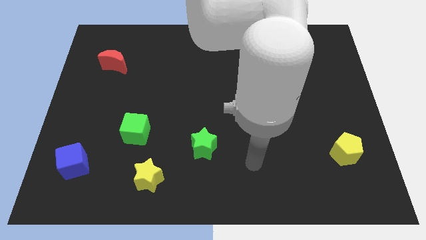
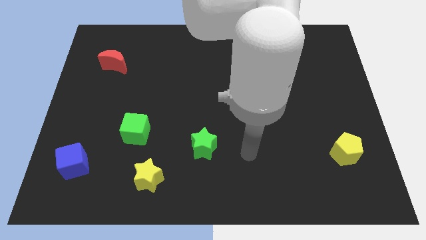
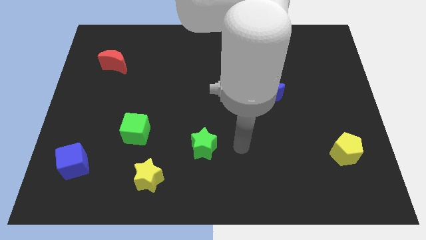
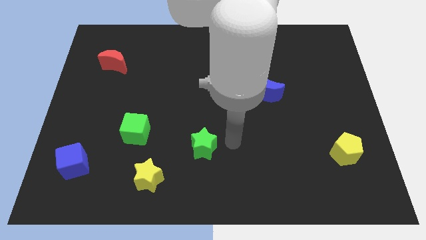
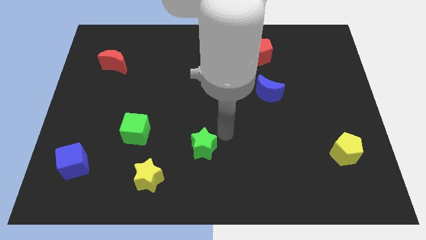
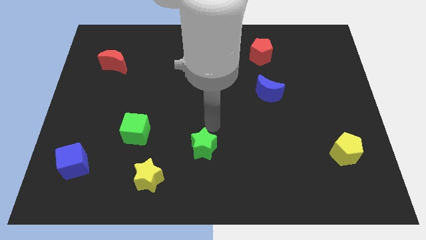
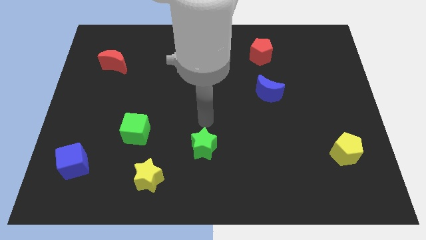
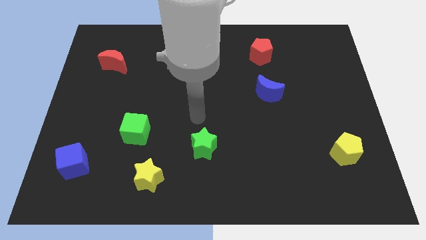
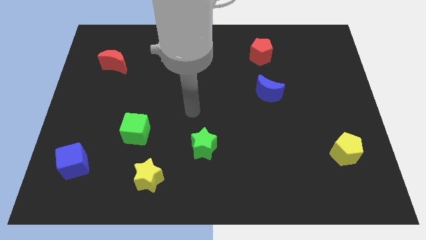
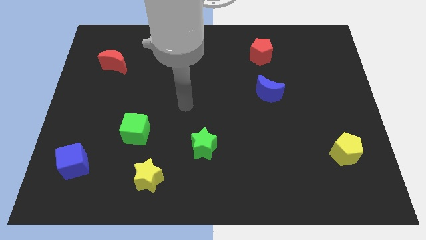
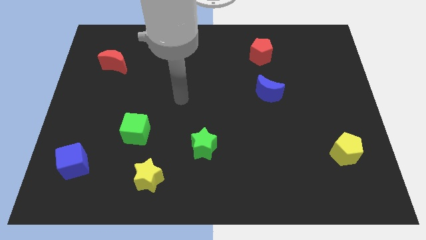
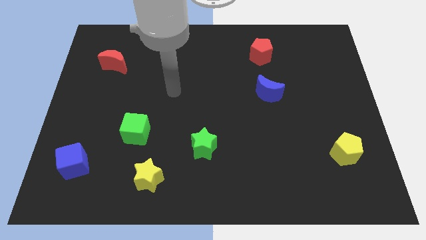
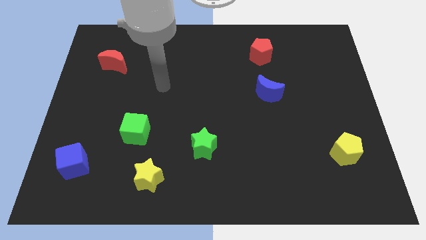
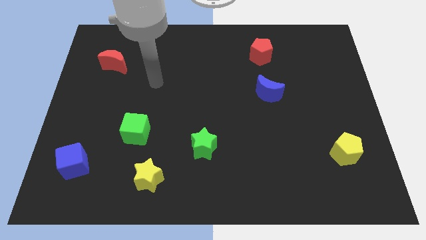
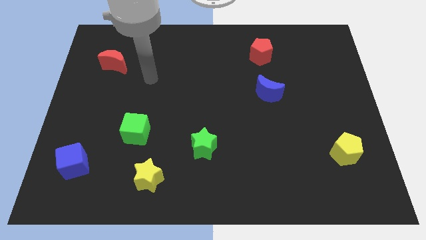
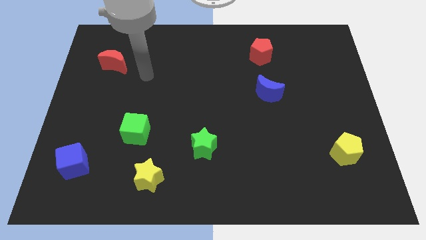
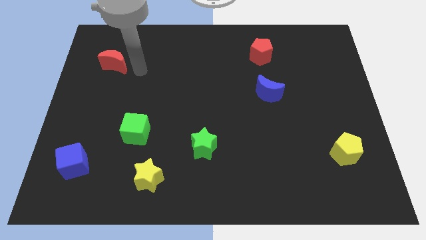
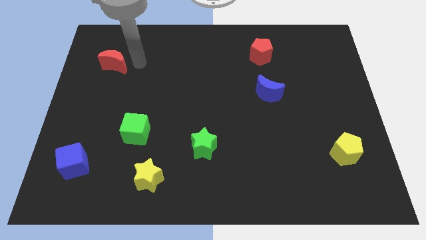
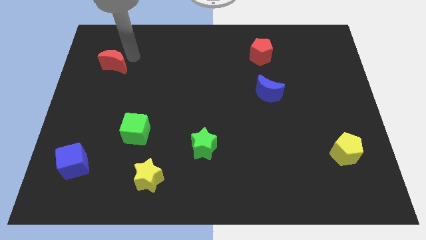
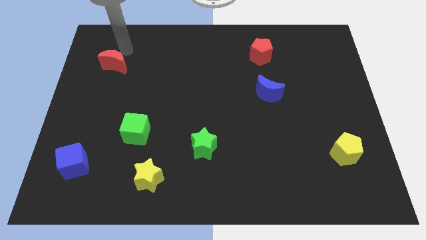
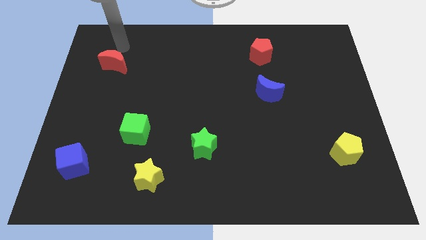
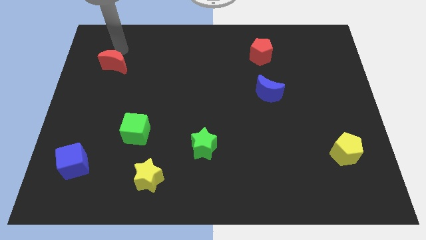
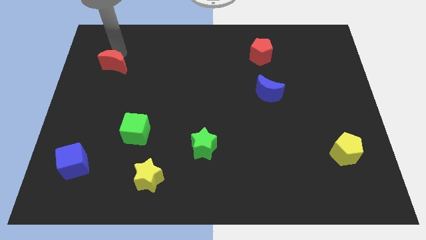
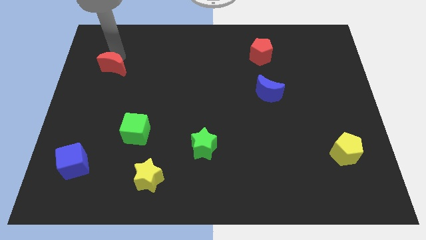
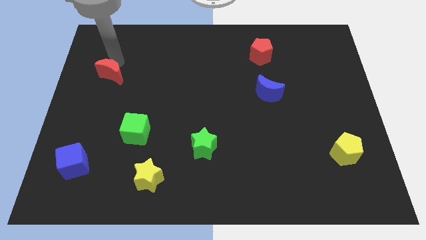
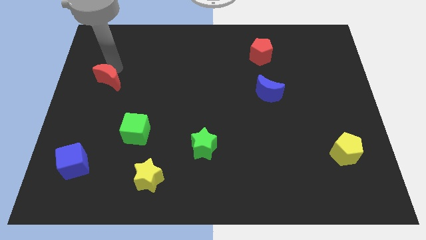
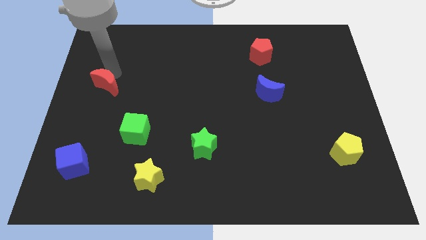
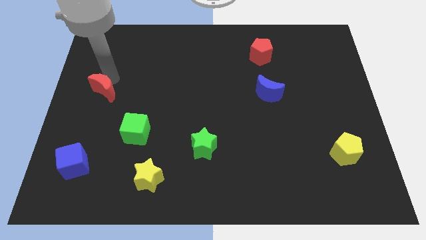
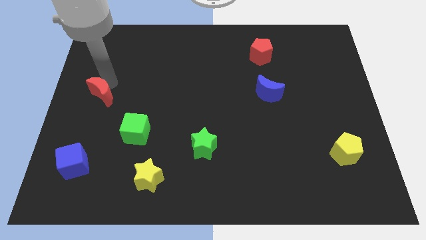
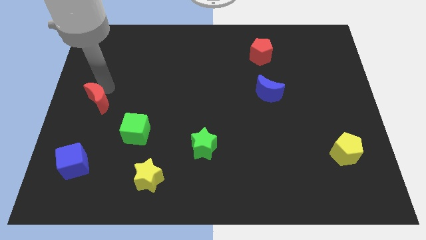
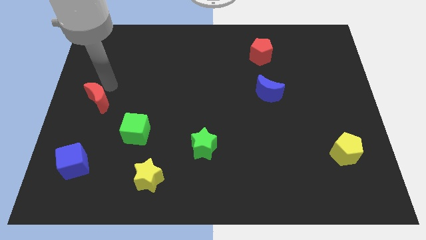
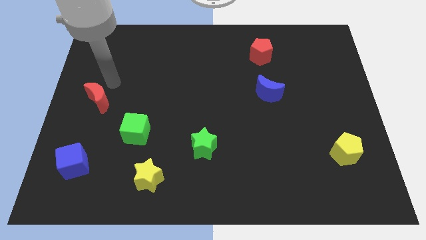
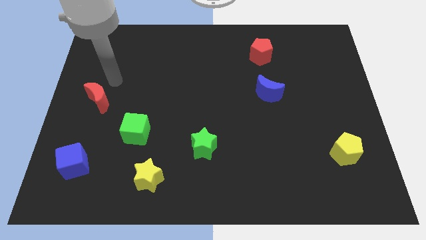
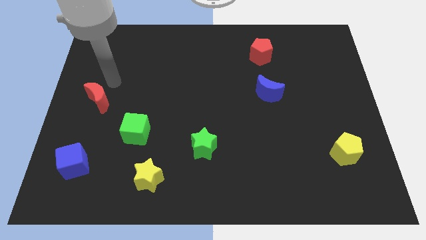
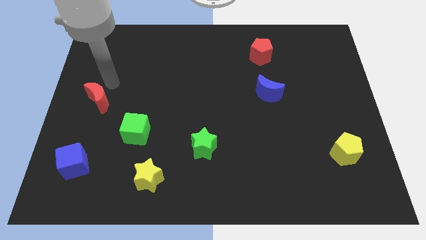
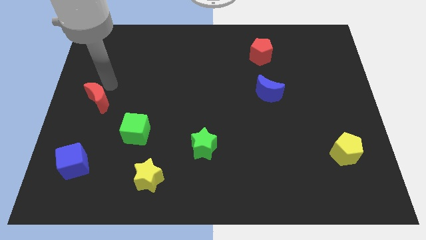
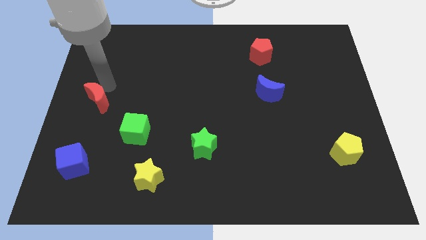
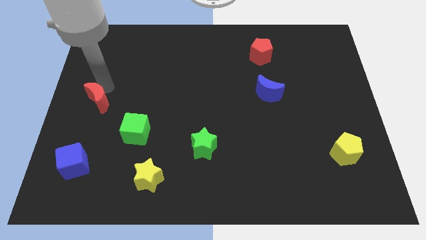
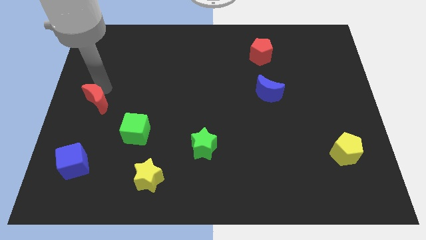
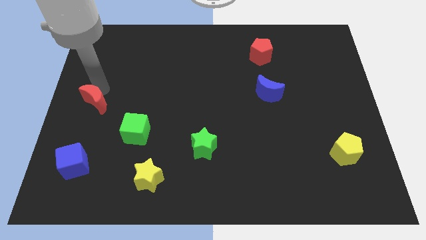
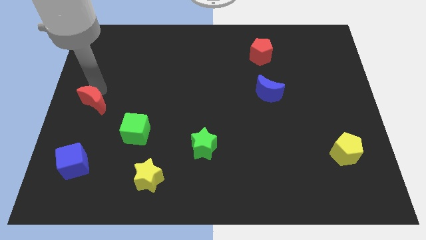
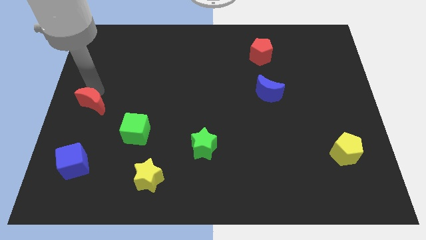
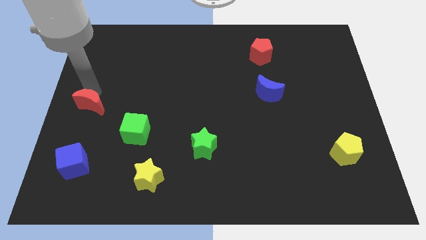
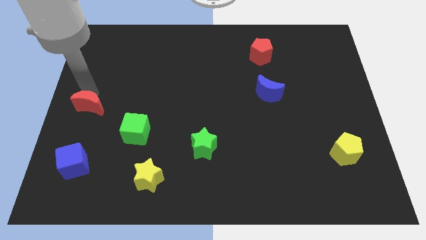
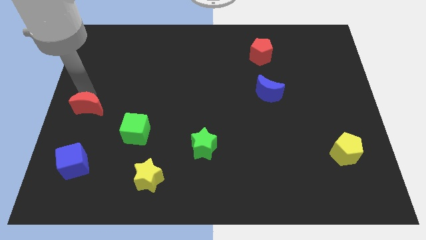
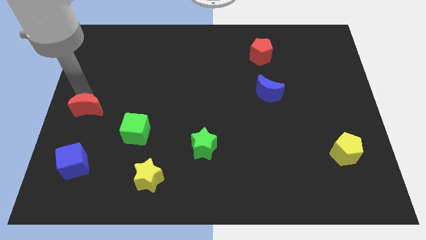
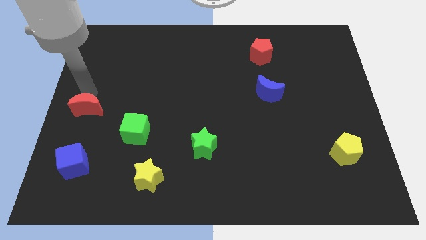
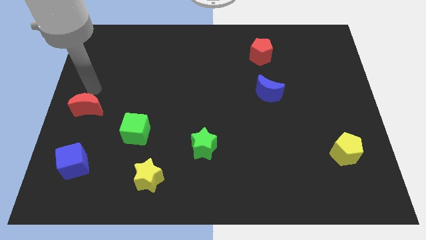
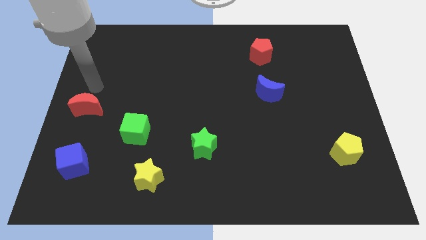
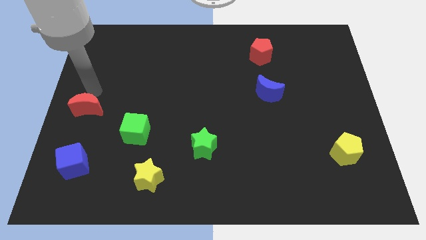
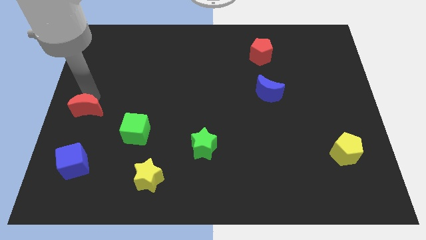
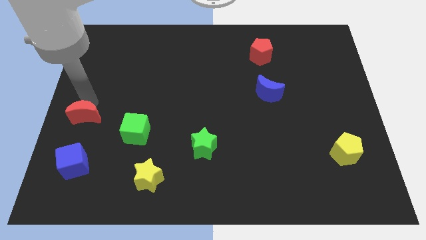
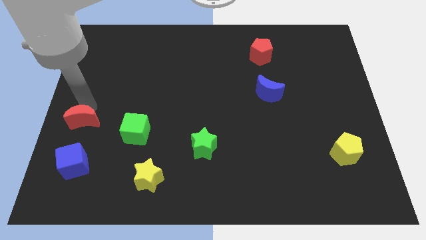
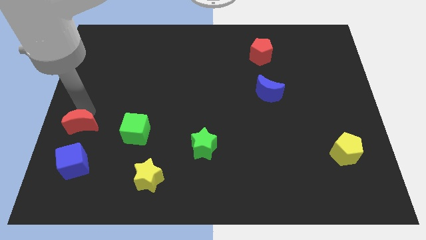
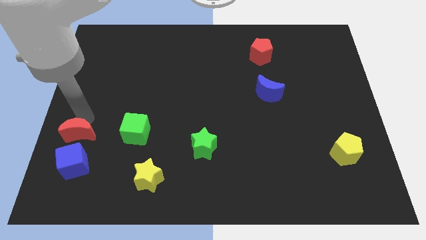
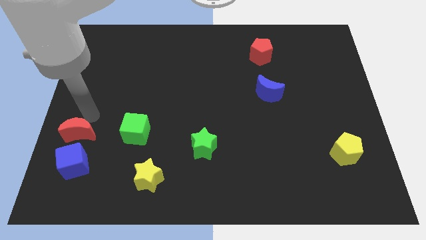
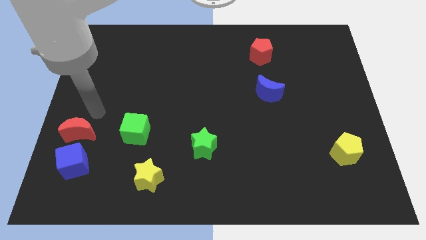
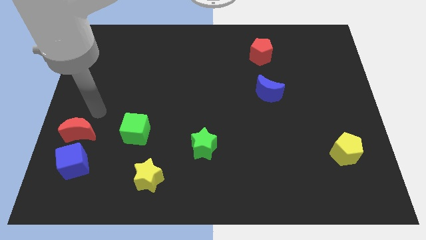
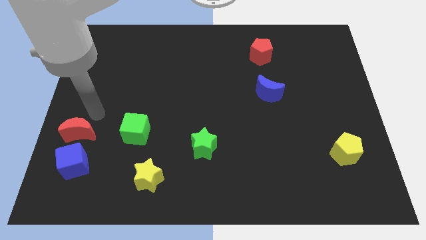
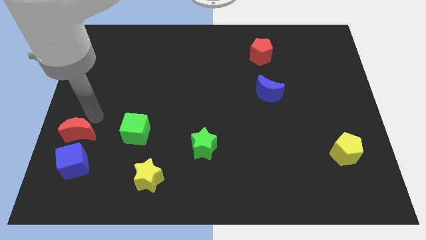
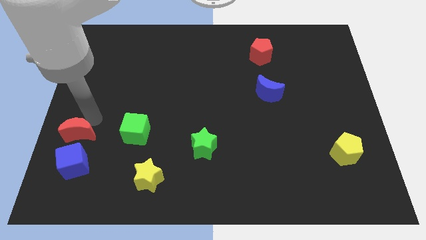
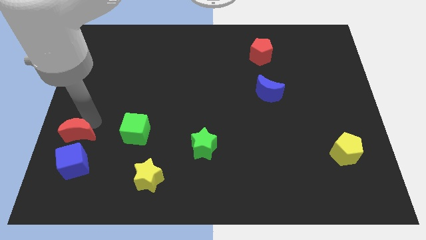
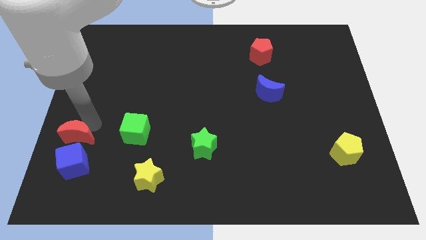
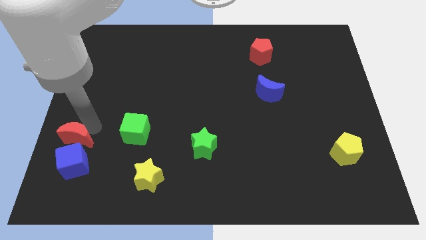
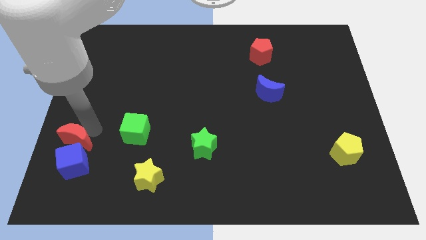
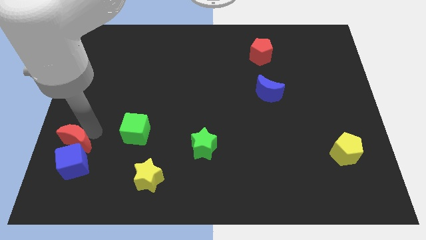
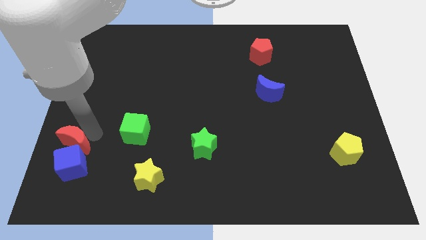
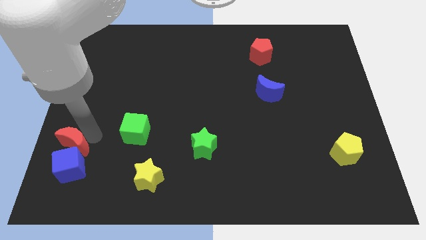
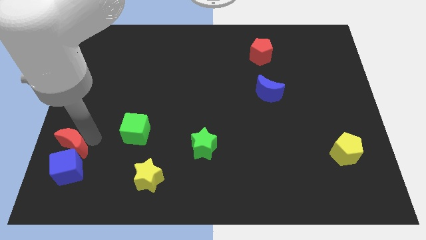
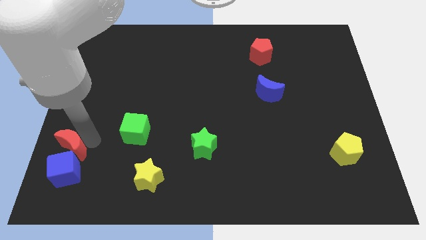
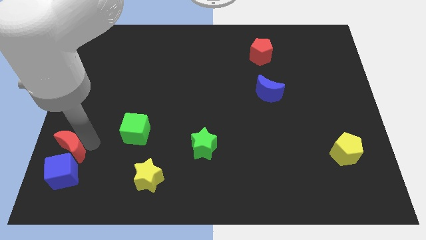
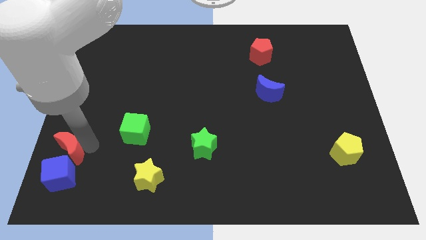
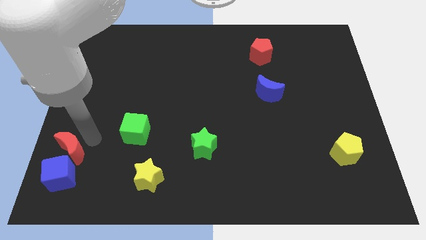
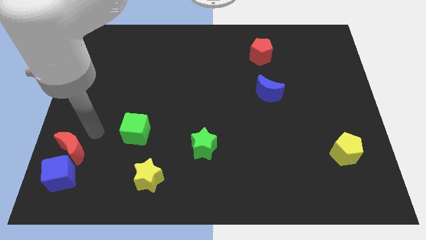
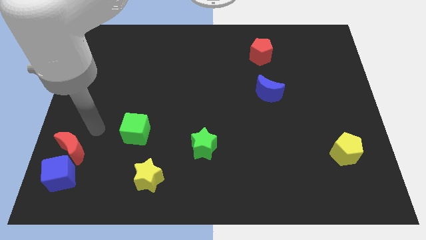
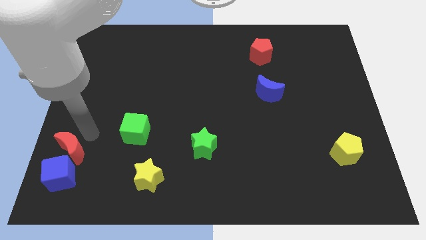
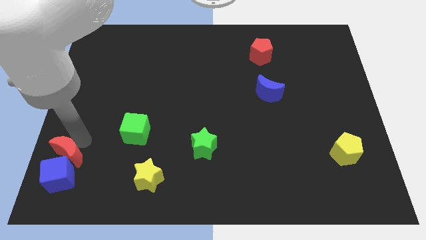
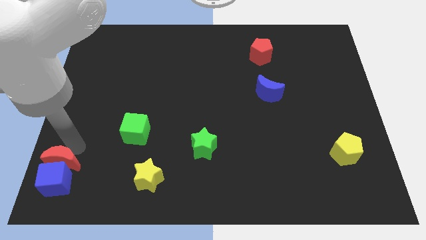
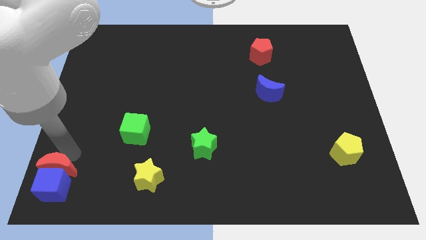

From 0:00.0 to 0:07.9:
slide the red moon to the bottom left
